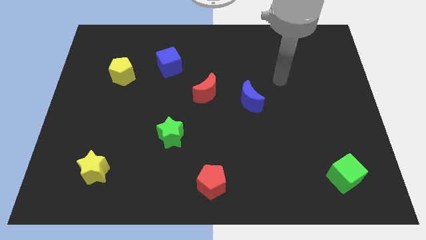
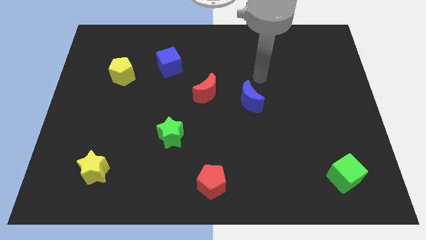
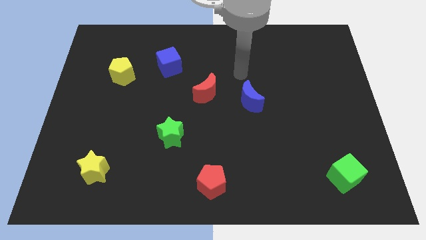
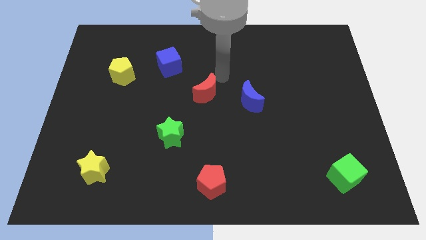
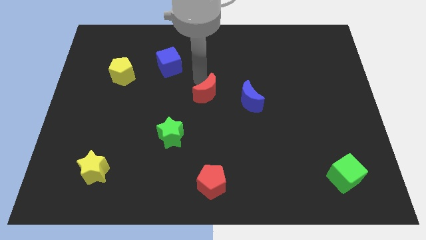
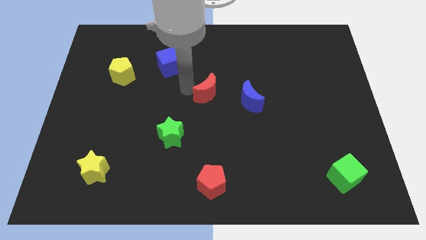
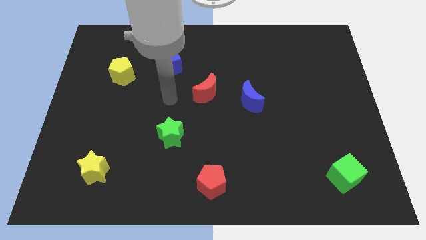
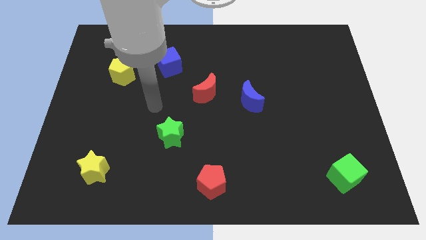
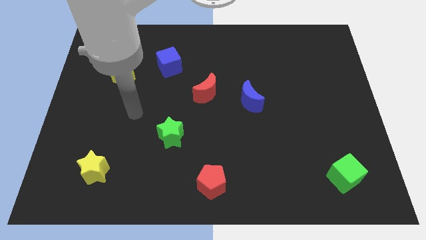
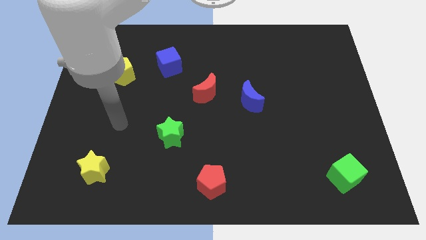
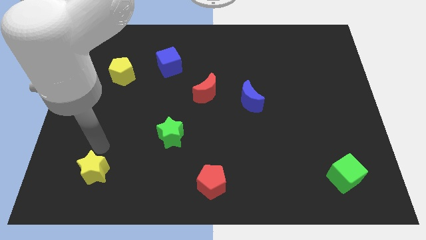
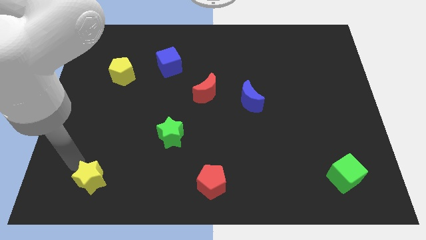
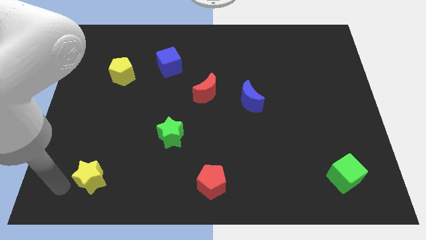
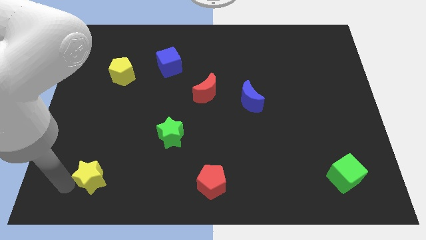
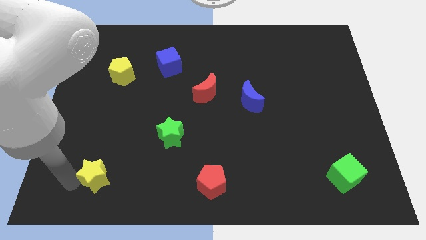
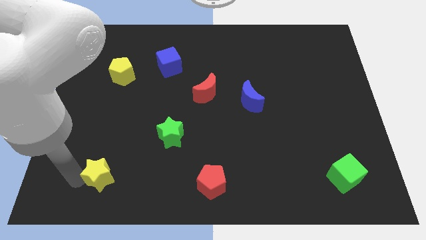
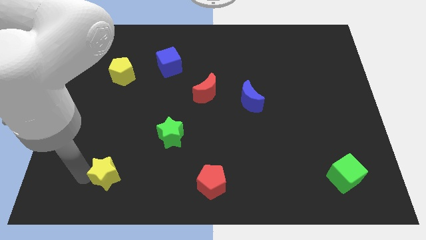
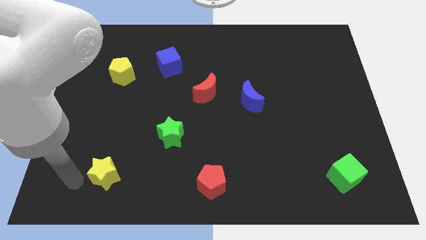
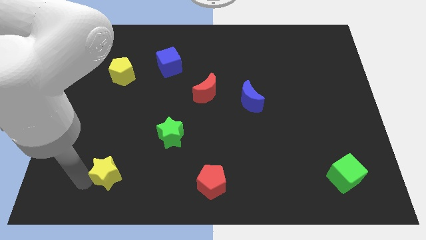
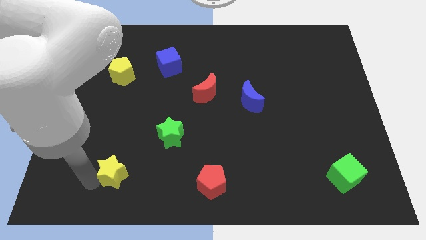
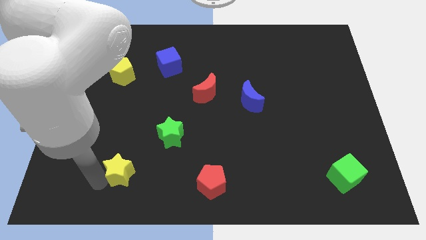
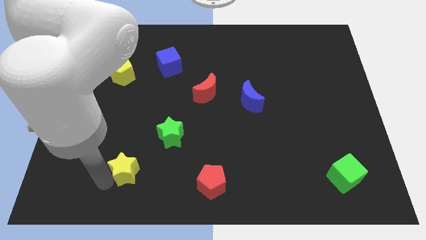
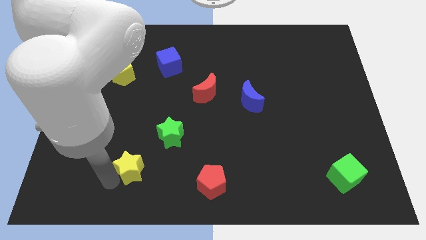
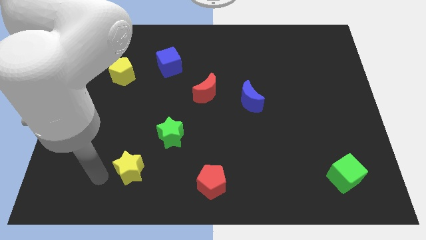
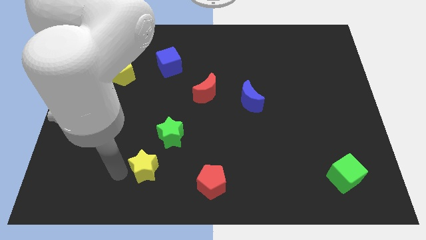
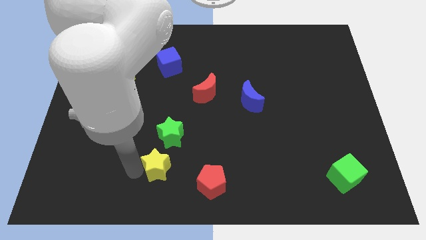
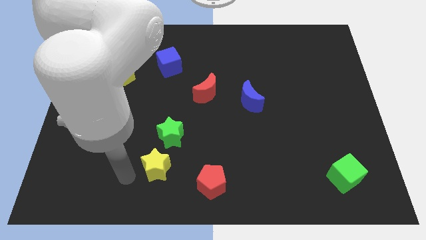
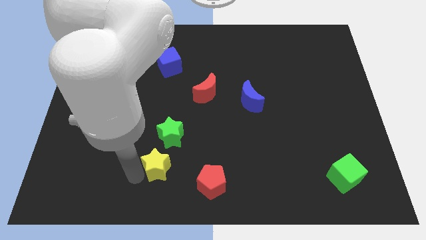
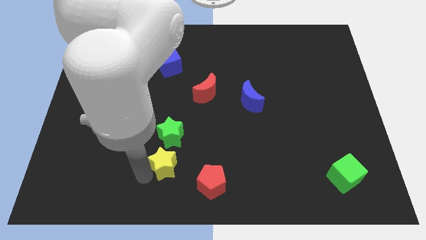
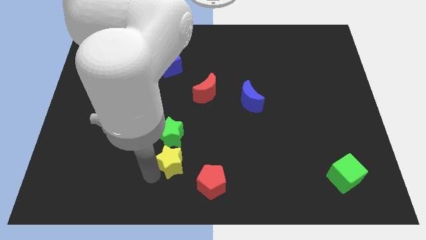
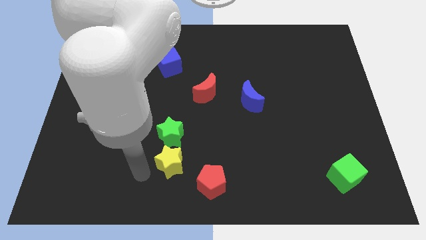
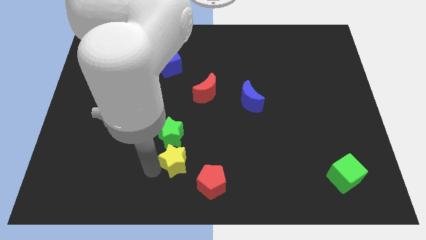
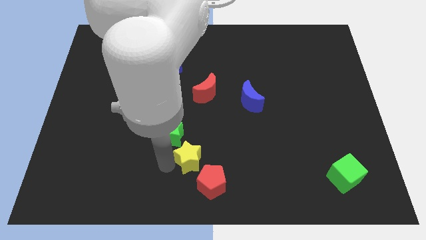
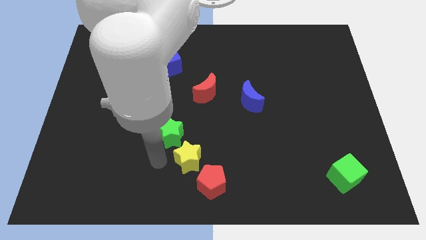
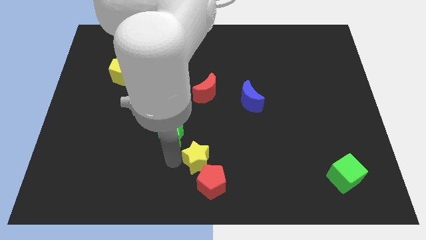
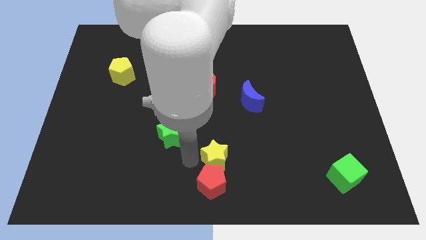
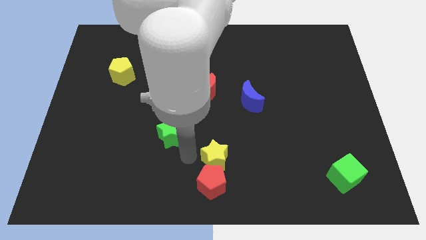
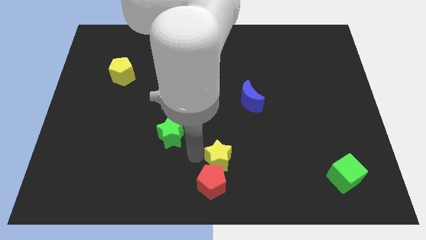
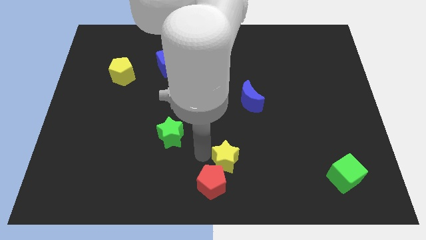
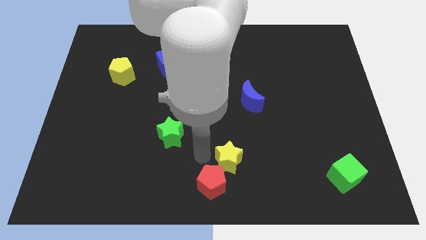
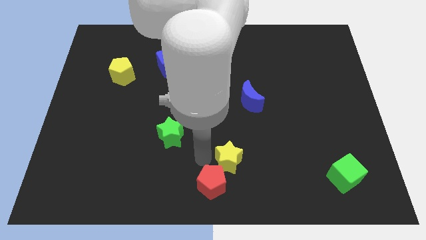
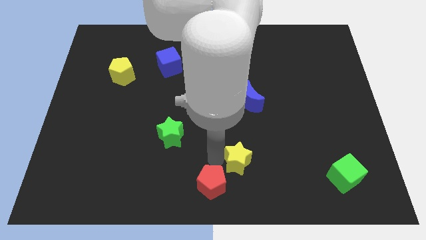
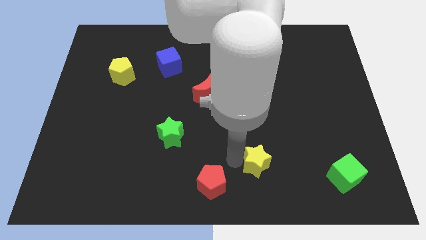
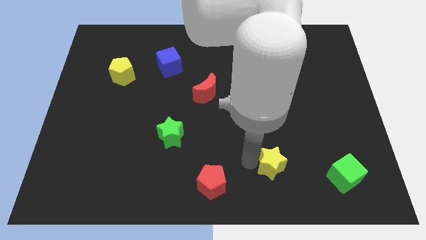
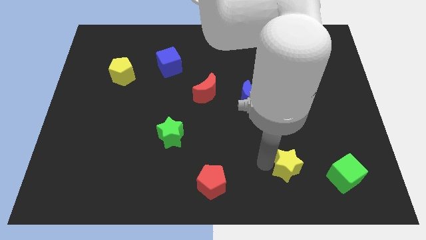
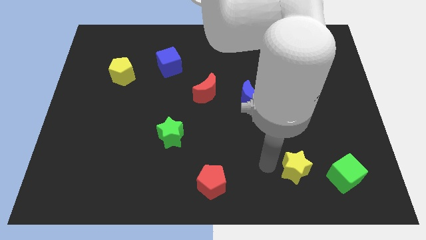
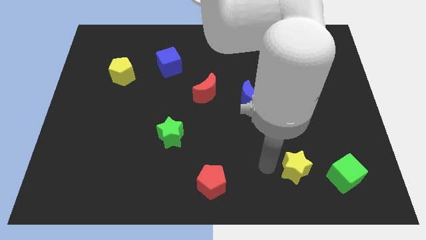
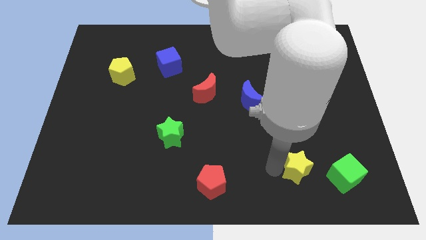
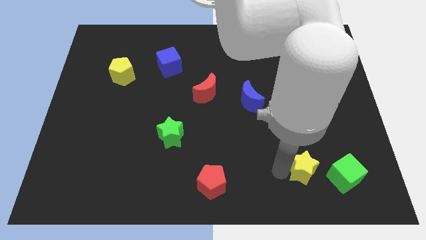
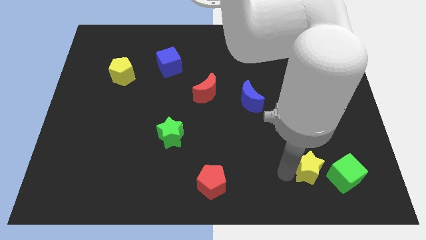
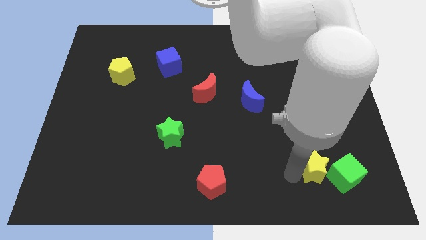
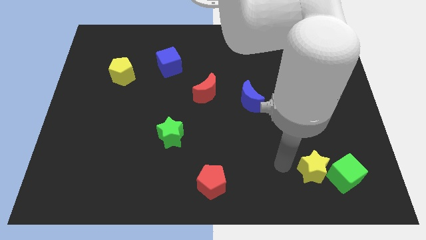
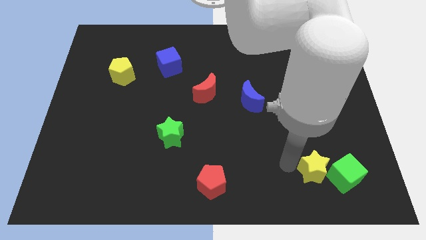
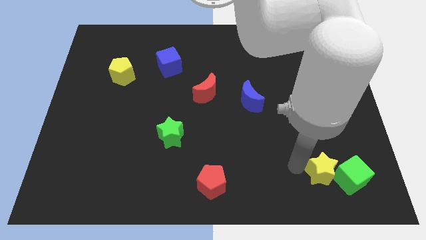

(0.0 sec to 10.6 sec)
slide the yellow star close to the green cube
